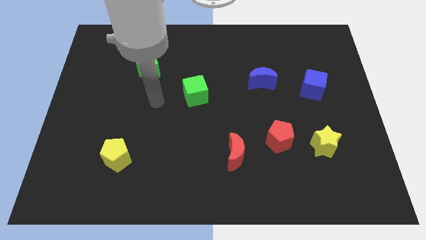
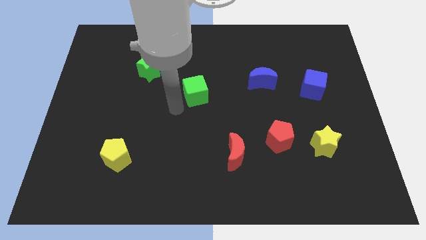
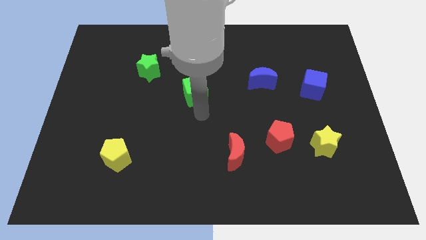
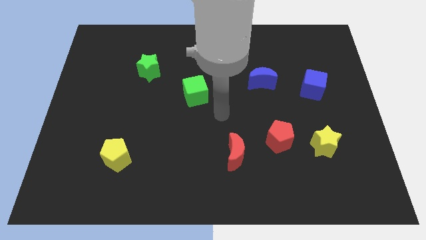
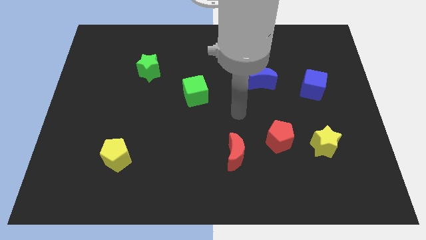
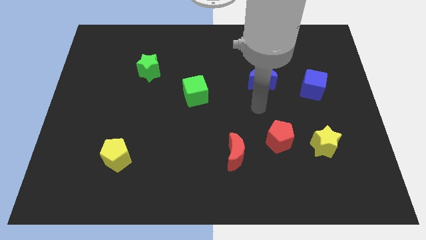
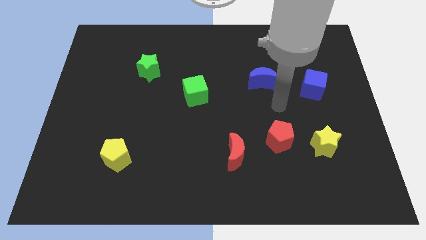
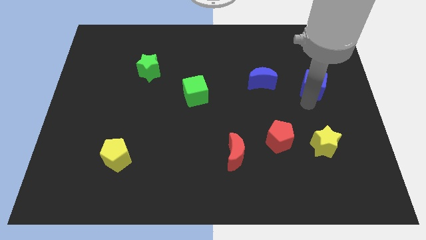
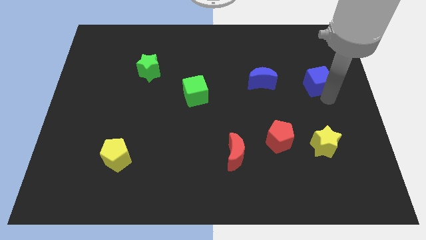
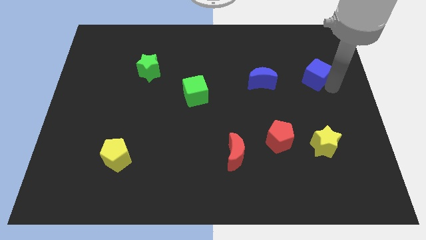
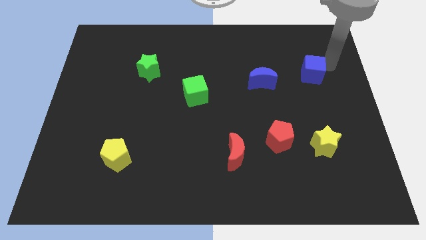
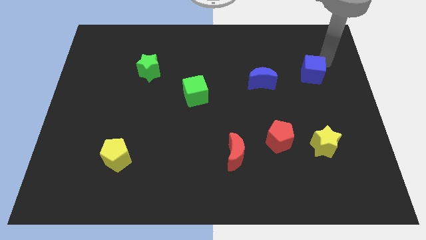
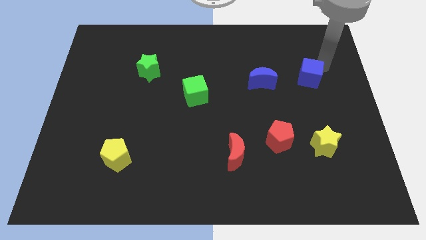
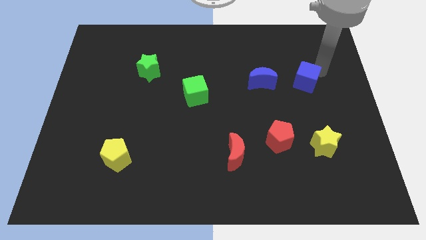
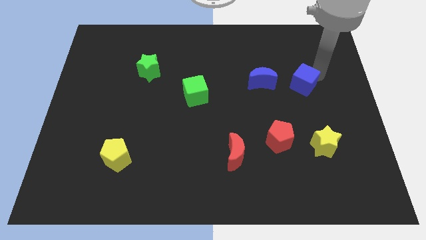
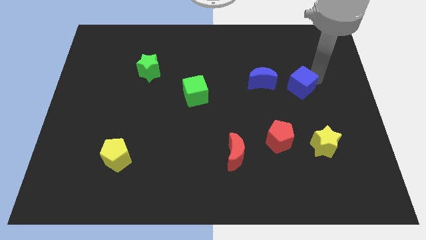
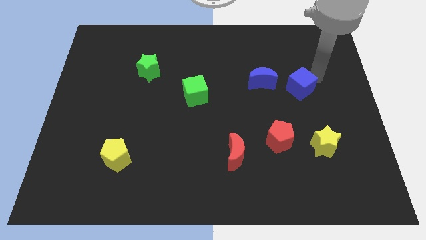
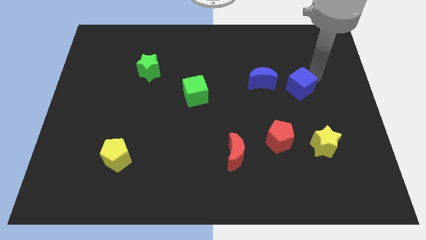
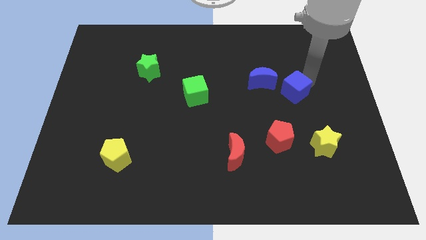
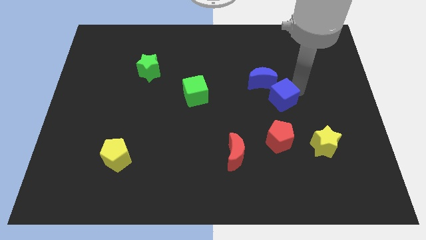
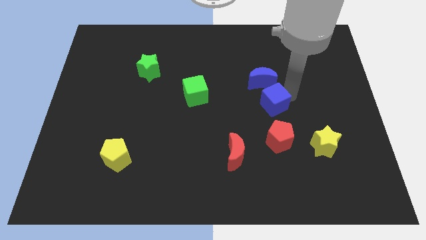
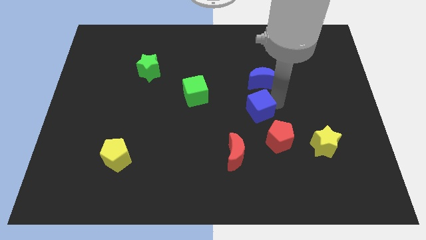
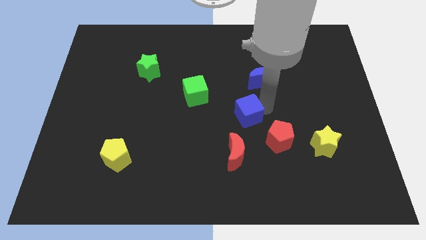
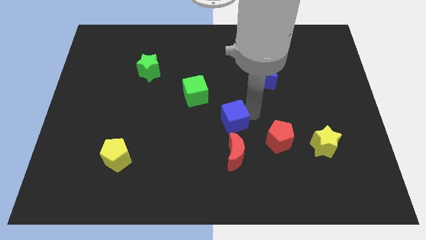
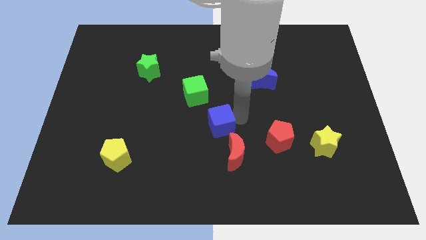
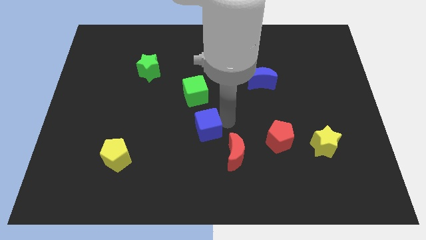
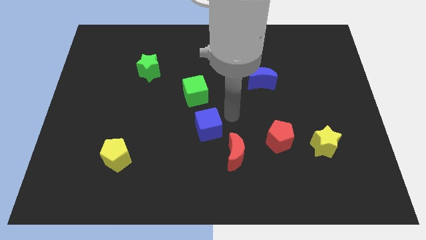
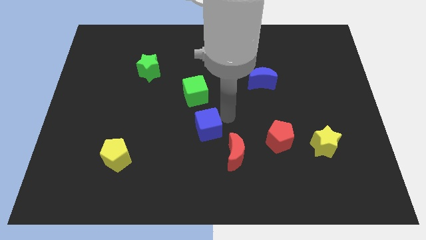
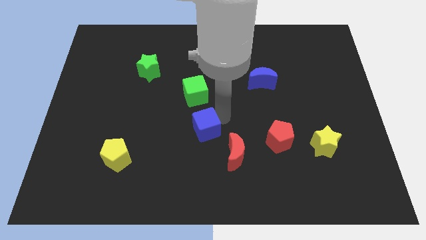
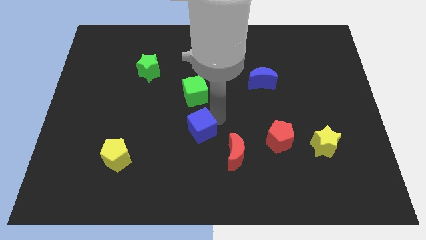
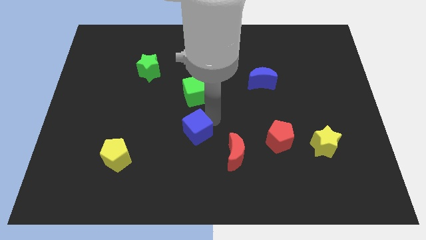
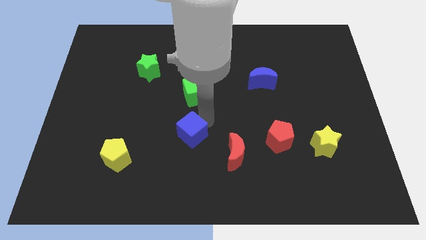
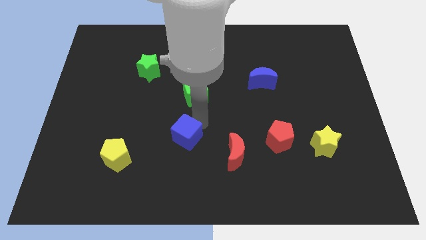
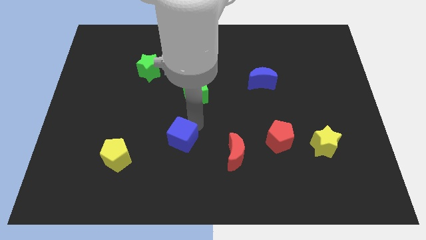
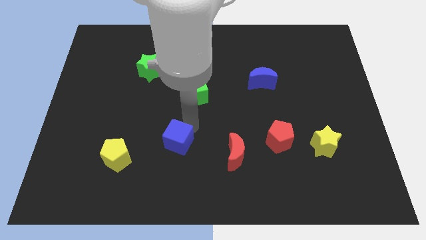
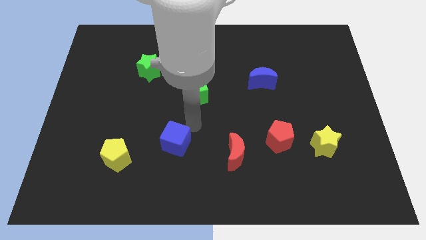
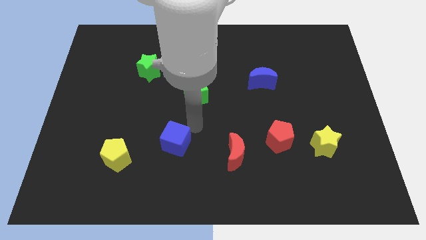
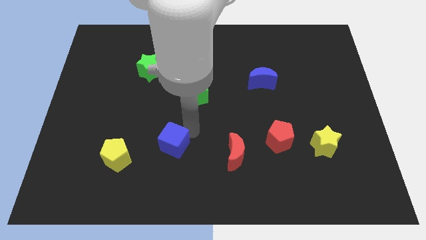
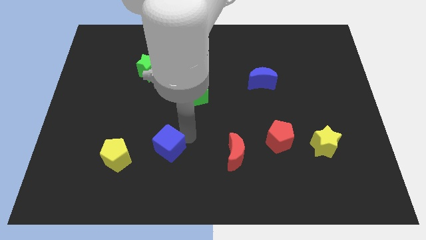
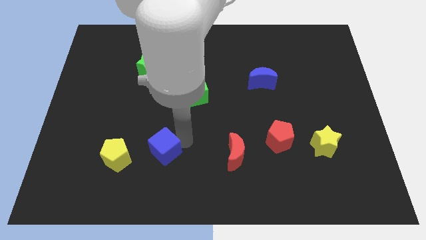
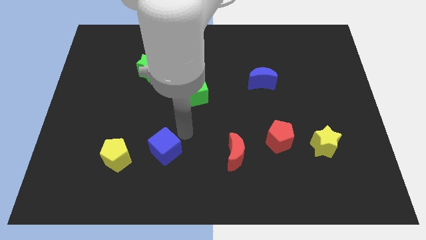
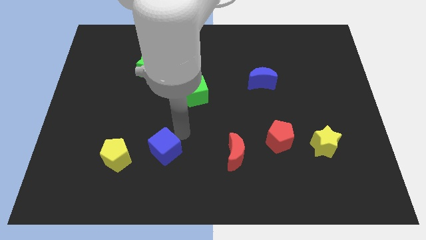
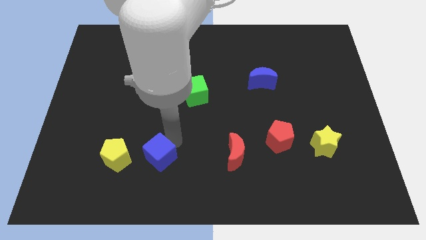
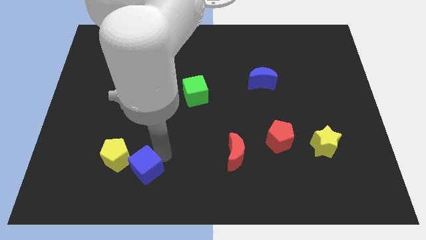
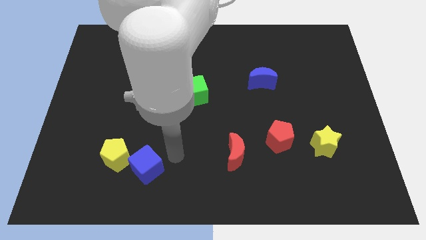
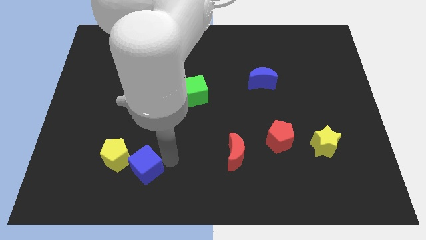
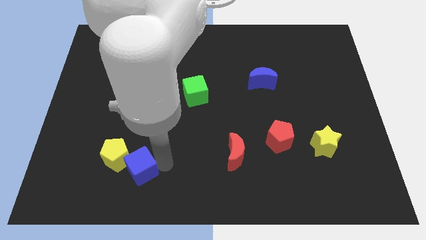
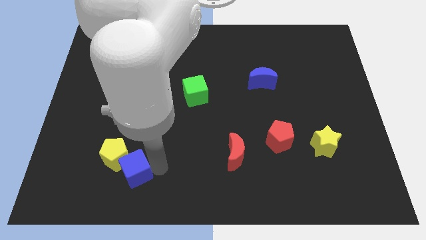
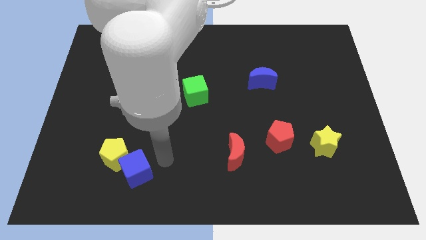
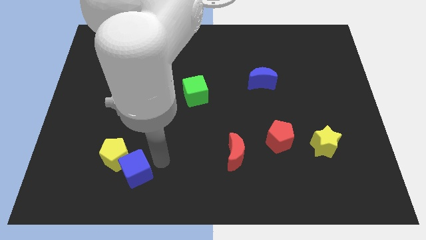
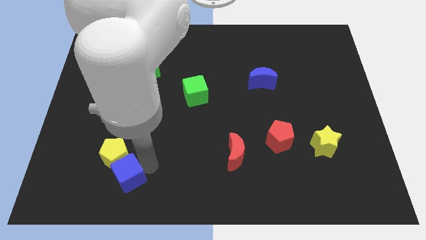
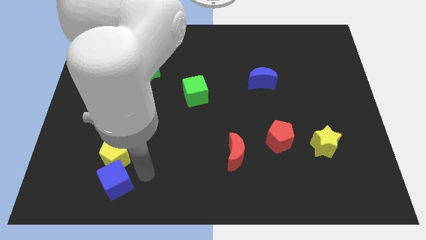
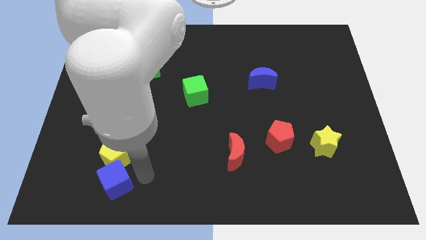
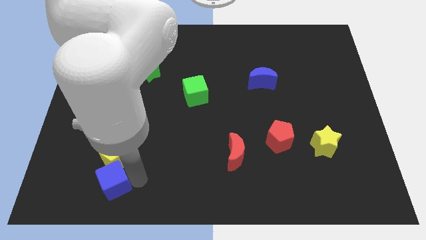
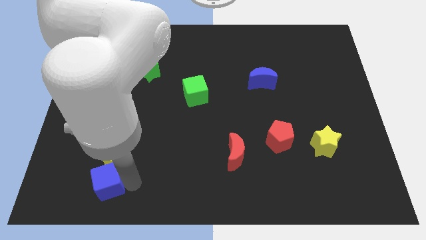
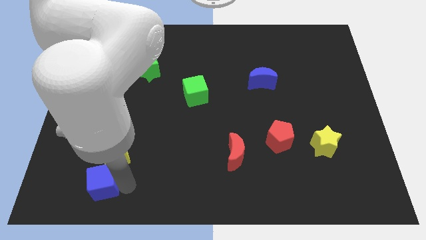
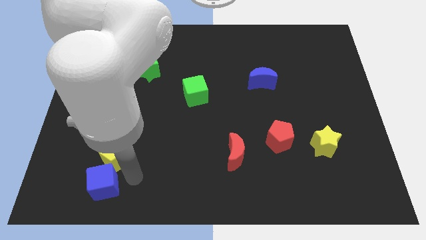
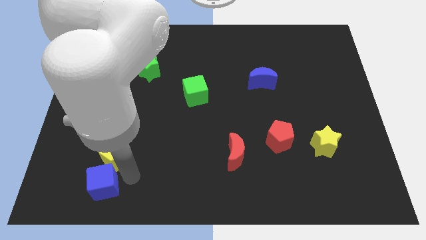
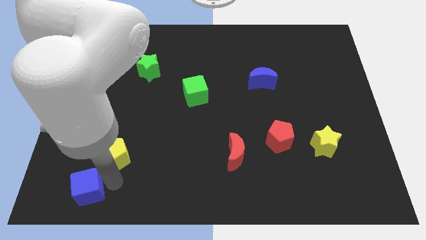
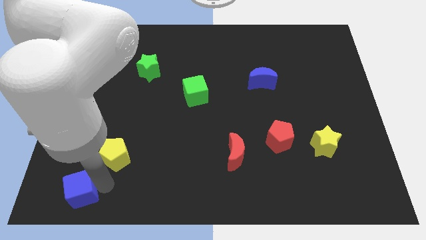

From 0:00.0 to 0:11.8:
slide the blue cube to the bottom left
